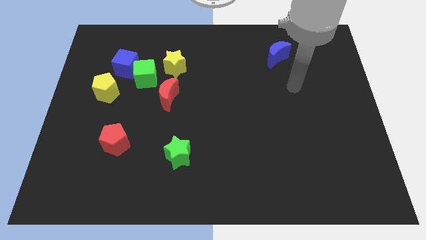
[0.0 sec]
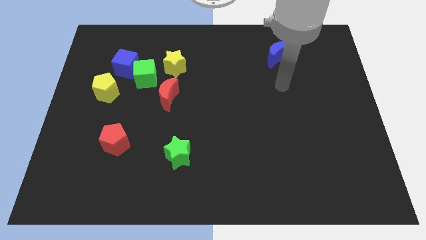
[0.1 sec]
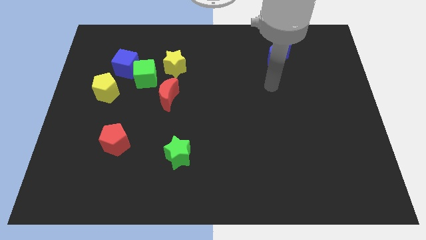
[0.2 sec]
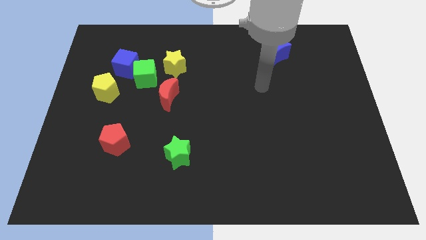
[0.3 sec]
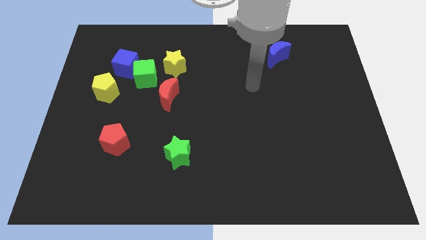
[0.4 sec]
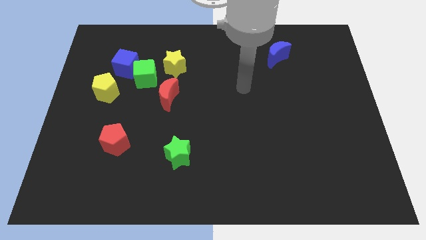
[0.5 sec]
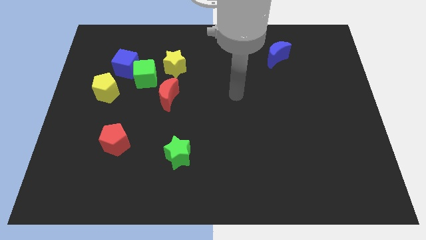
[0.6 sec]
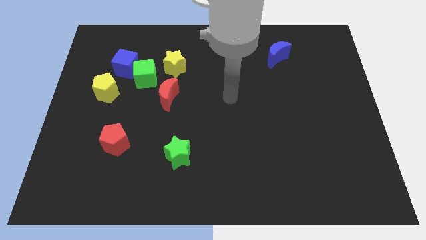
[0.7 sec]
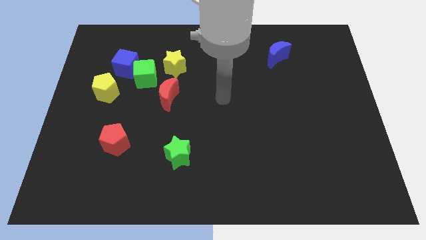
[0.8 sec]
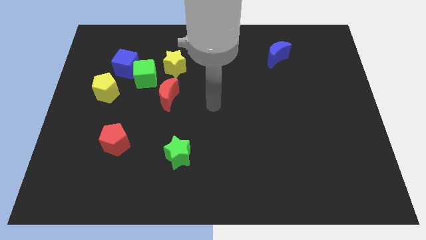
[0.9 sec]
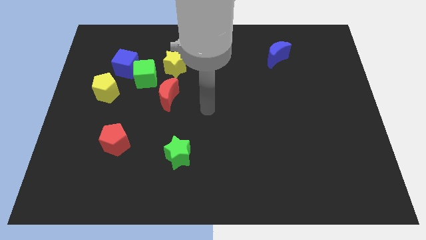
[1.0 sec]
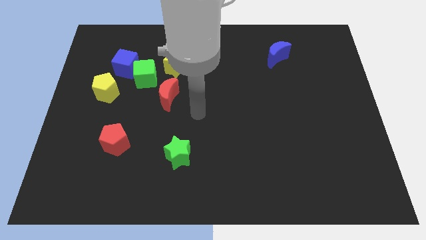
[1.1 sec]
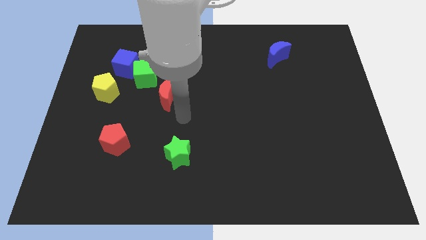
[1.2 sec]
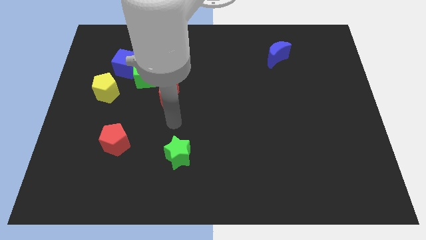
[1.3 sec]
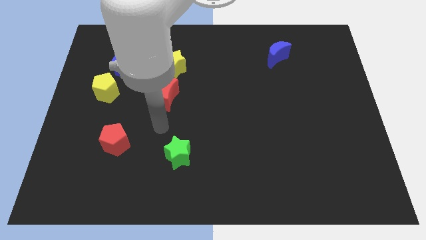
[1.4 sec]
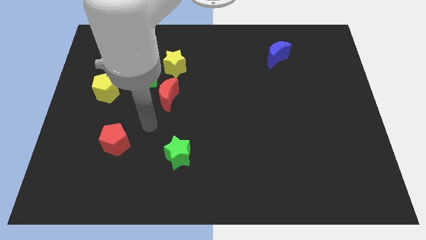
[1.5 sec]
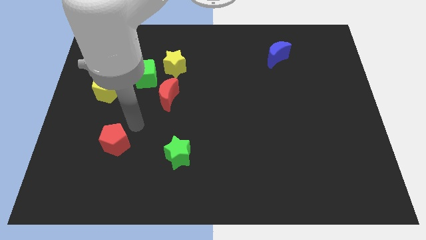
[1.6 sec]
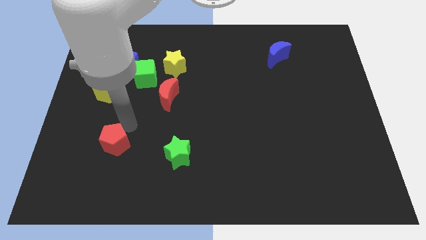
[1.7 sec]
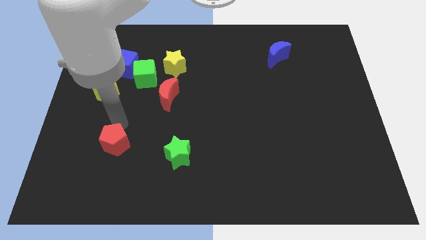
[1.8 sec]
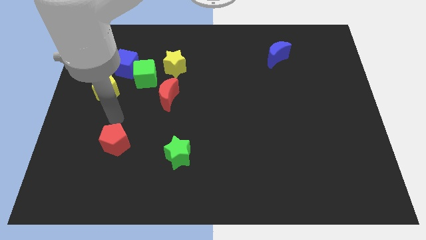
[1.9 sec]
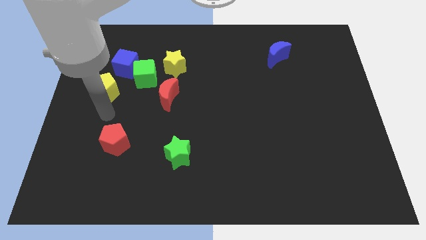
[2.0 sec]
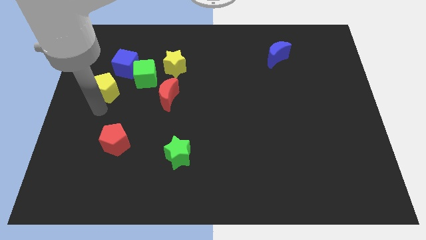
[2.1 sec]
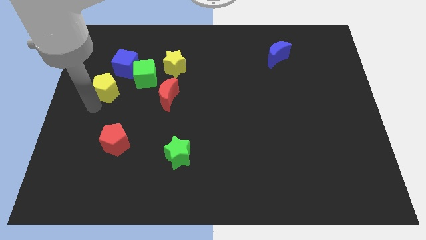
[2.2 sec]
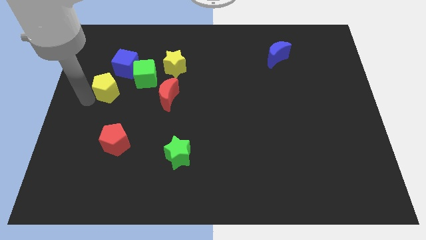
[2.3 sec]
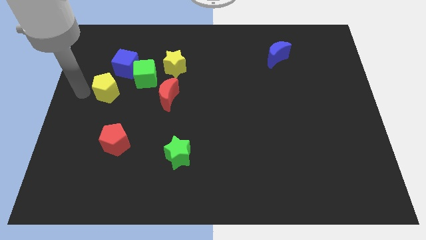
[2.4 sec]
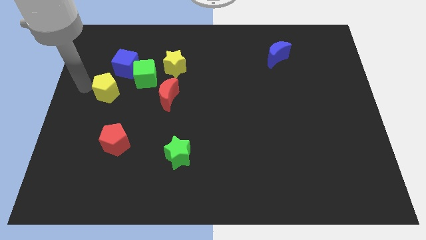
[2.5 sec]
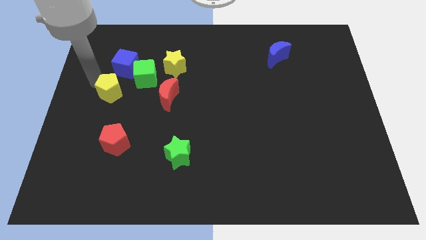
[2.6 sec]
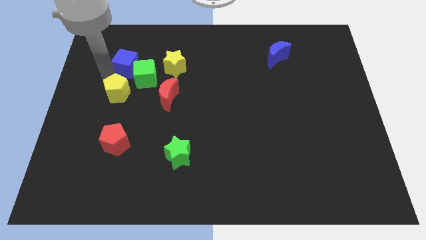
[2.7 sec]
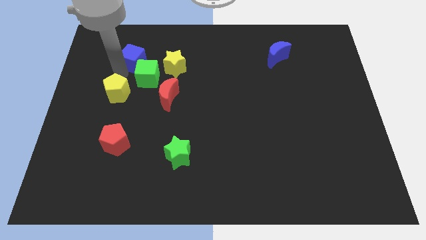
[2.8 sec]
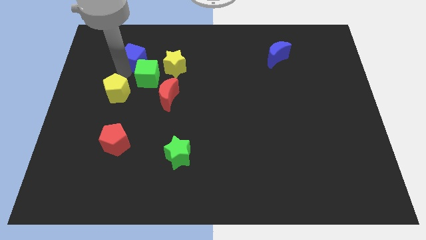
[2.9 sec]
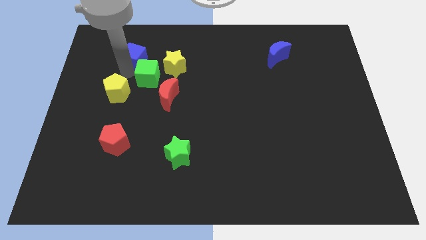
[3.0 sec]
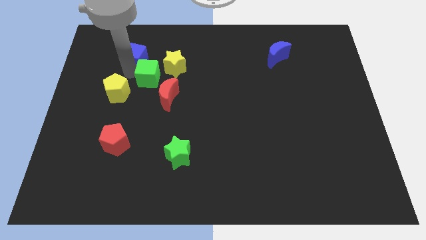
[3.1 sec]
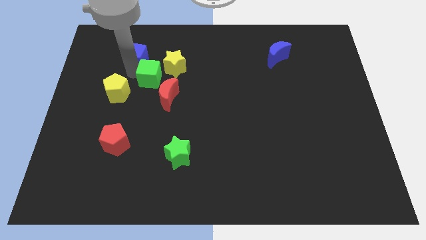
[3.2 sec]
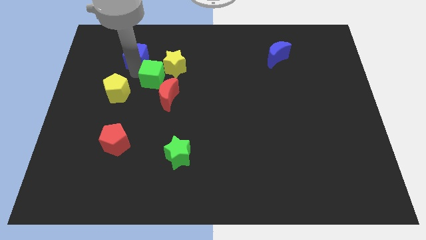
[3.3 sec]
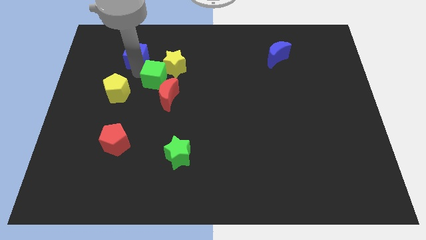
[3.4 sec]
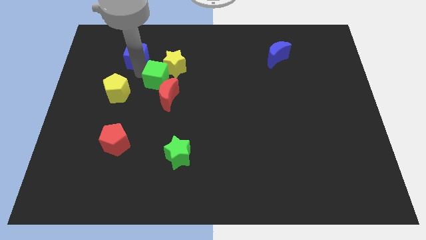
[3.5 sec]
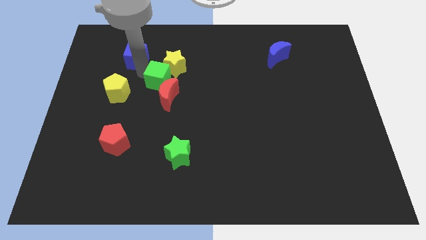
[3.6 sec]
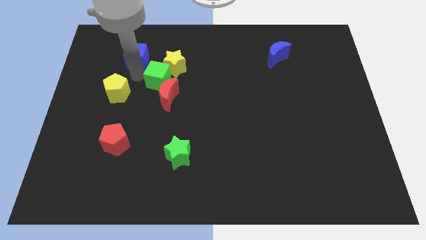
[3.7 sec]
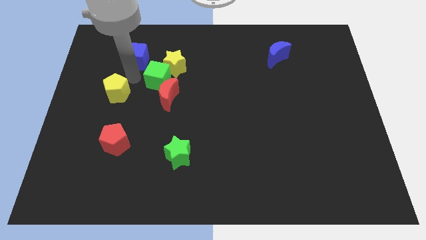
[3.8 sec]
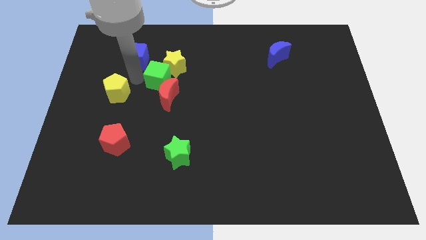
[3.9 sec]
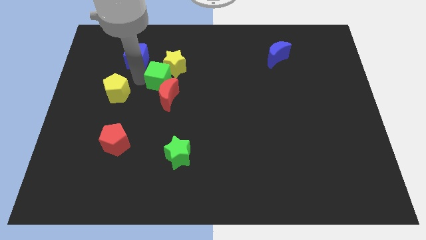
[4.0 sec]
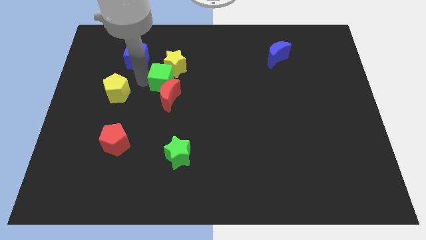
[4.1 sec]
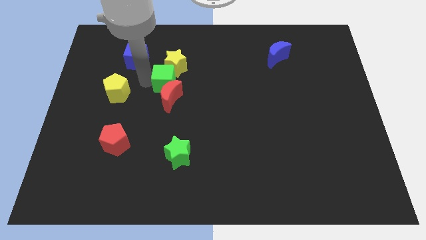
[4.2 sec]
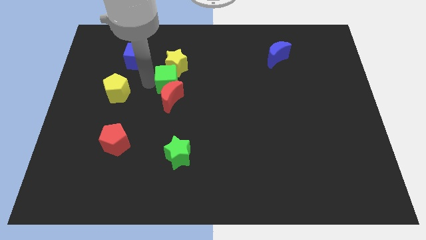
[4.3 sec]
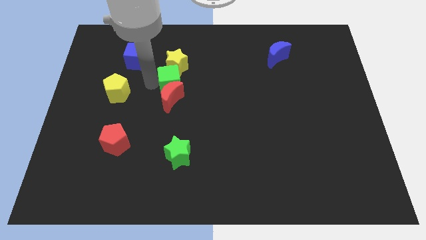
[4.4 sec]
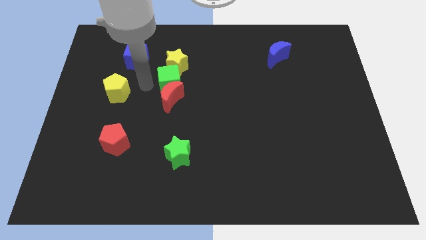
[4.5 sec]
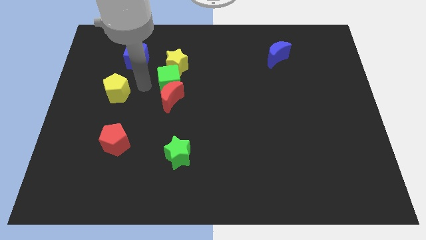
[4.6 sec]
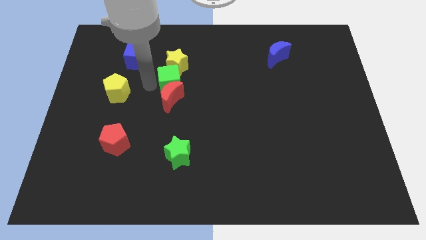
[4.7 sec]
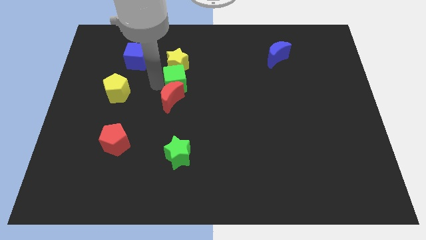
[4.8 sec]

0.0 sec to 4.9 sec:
slightly move the green cube right

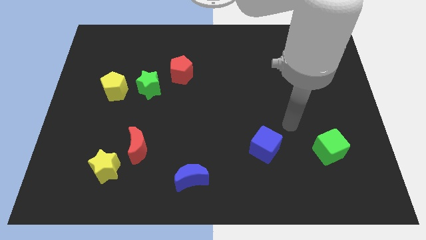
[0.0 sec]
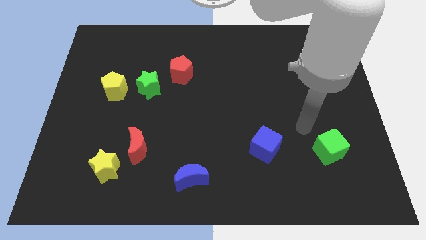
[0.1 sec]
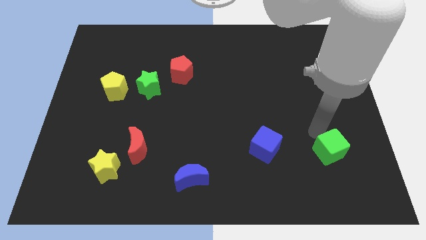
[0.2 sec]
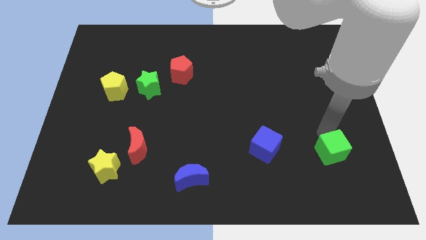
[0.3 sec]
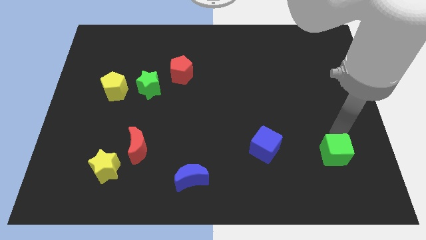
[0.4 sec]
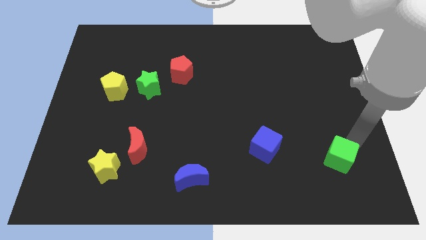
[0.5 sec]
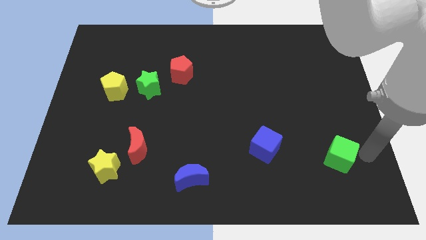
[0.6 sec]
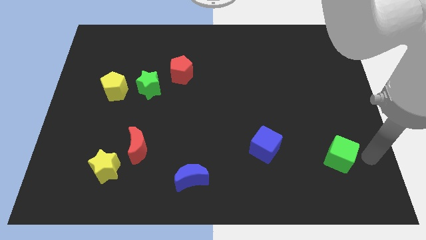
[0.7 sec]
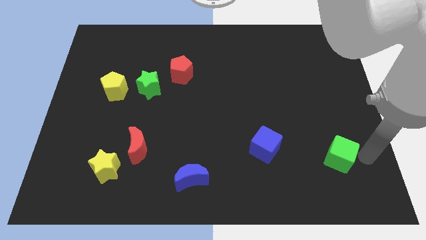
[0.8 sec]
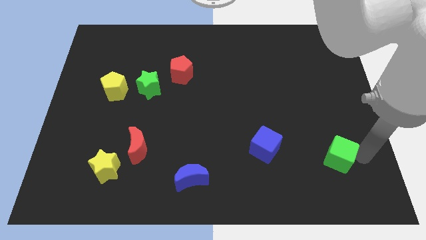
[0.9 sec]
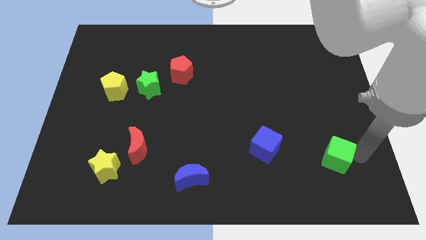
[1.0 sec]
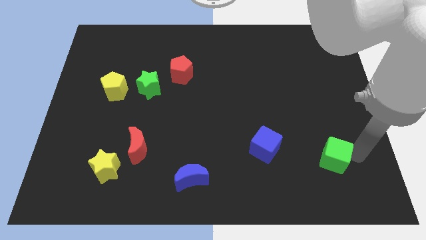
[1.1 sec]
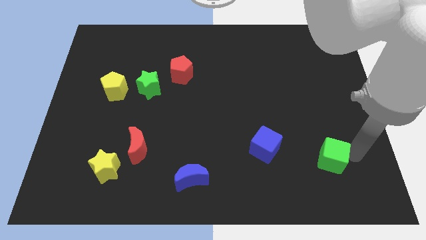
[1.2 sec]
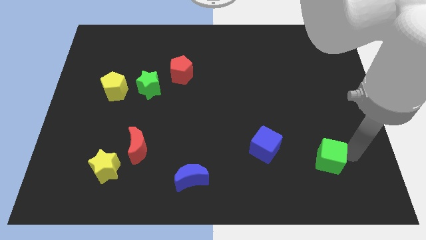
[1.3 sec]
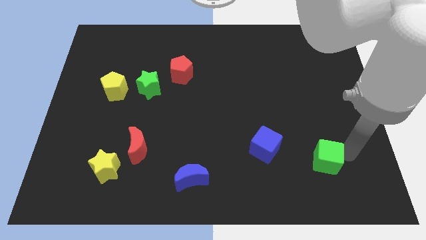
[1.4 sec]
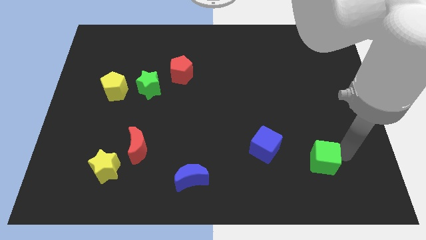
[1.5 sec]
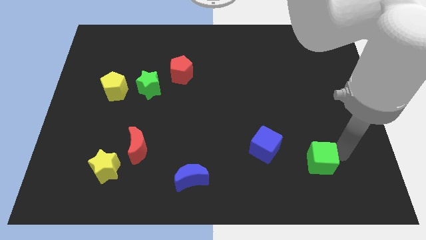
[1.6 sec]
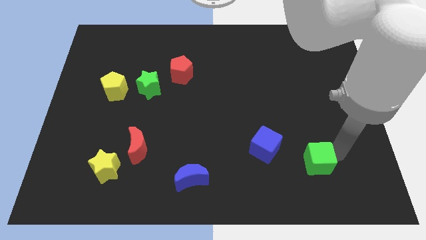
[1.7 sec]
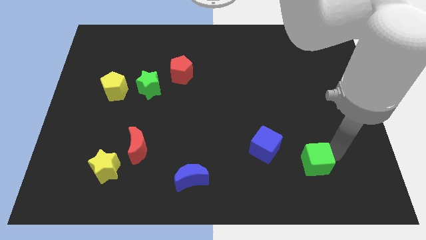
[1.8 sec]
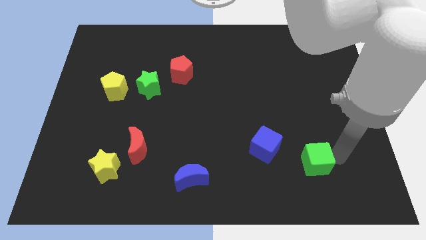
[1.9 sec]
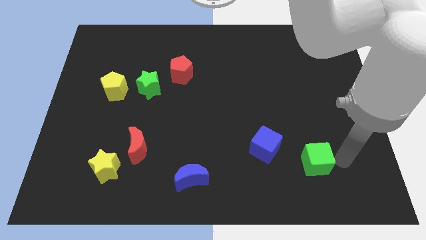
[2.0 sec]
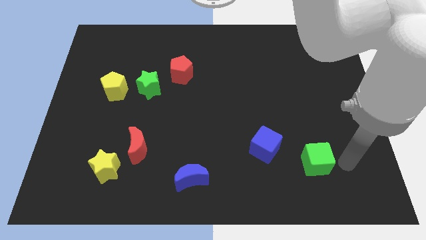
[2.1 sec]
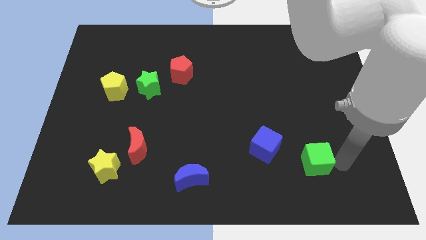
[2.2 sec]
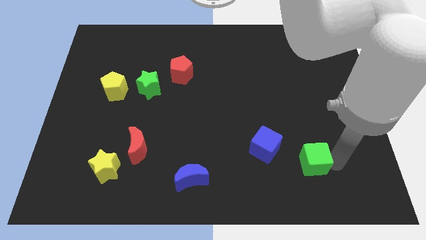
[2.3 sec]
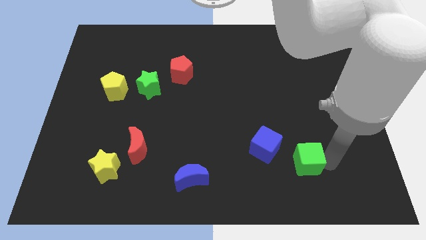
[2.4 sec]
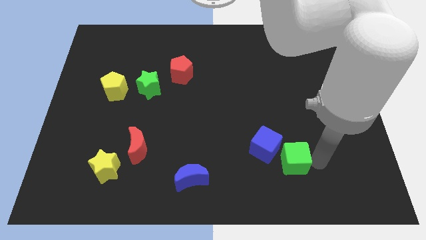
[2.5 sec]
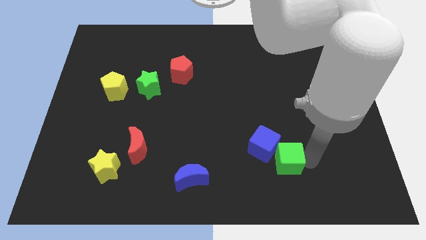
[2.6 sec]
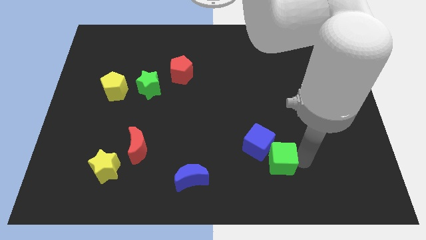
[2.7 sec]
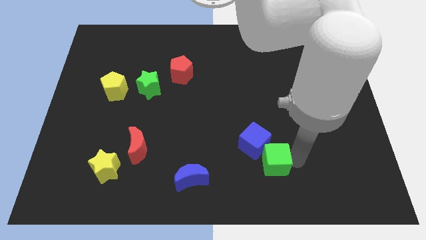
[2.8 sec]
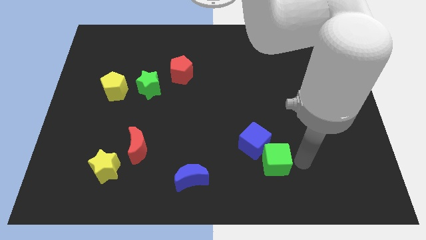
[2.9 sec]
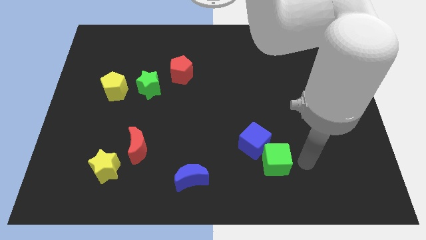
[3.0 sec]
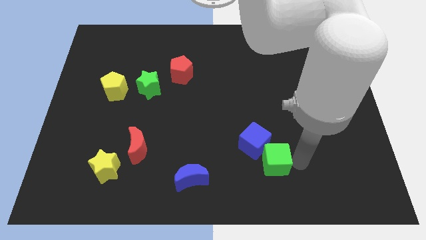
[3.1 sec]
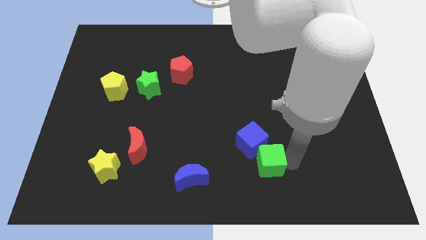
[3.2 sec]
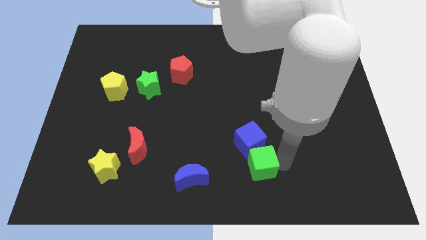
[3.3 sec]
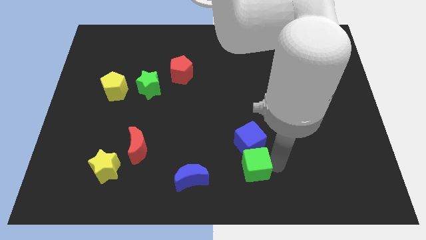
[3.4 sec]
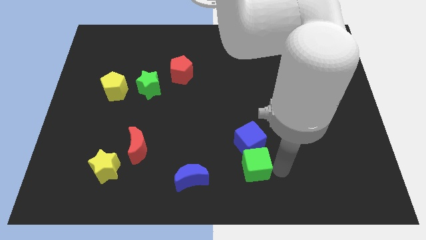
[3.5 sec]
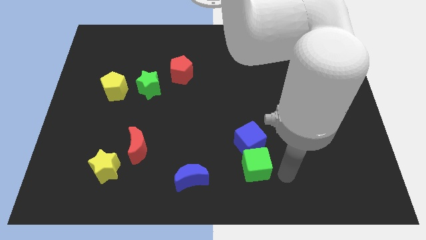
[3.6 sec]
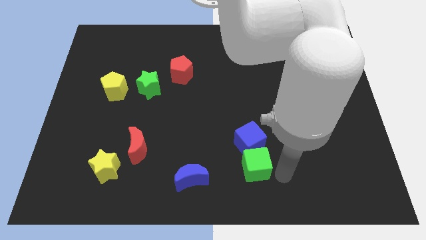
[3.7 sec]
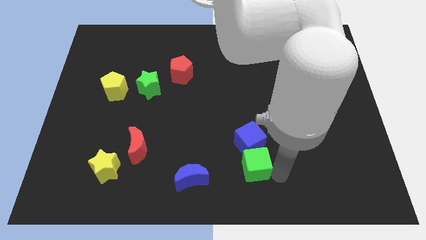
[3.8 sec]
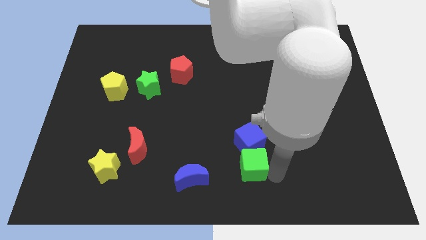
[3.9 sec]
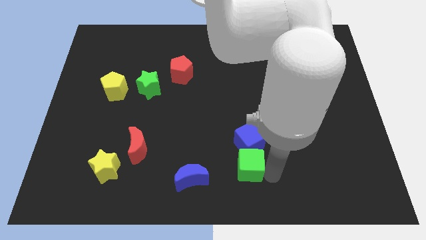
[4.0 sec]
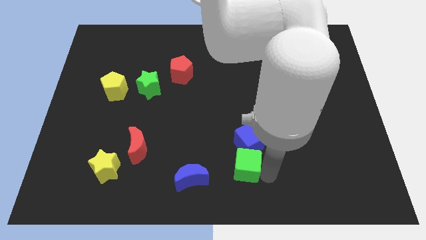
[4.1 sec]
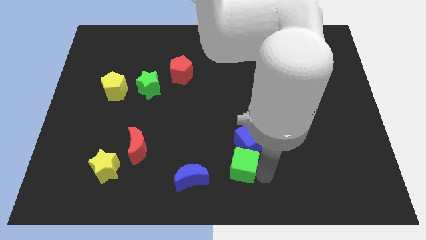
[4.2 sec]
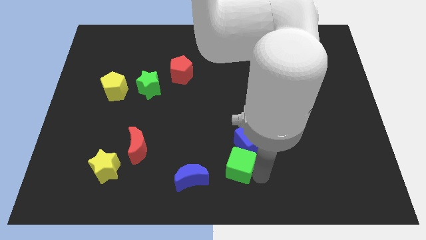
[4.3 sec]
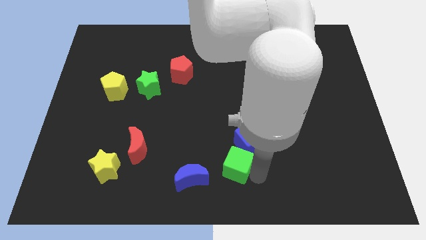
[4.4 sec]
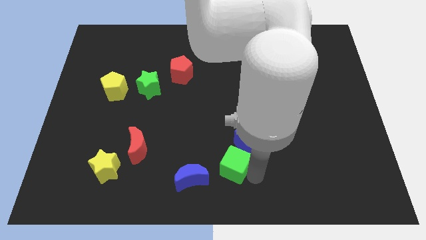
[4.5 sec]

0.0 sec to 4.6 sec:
slide the green cube left
